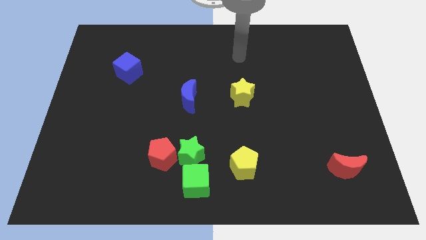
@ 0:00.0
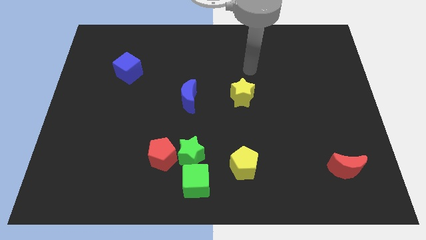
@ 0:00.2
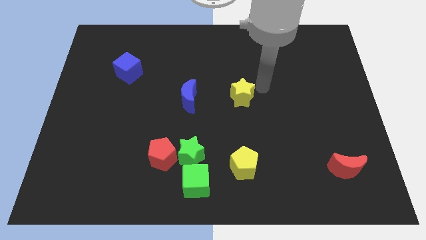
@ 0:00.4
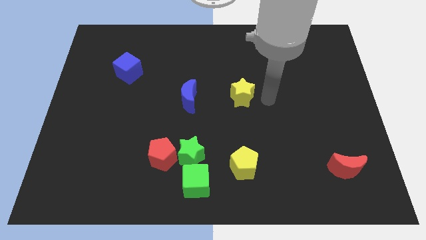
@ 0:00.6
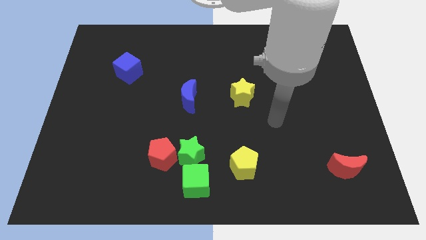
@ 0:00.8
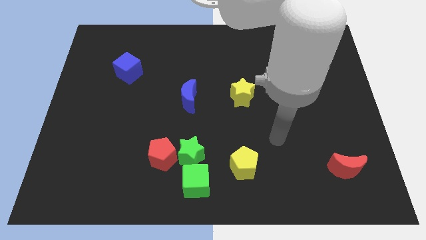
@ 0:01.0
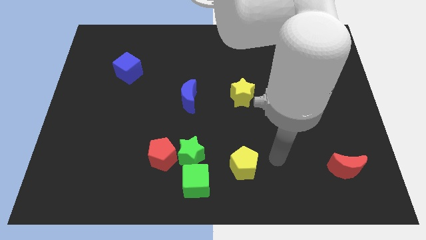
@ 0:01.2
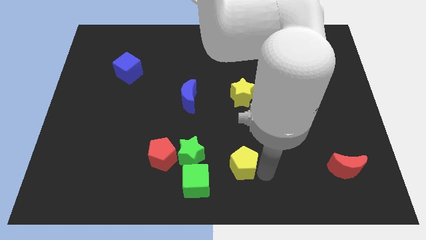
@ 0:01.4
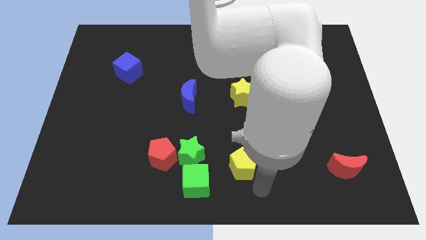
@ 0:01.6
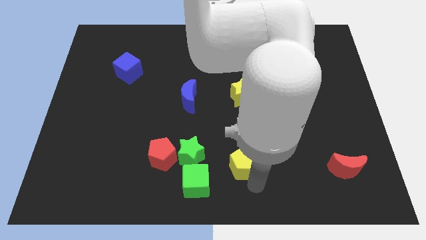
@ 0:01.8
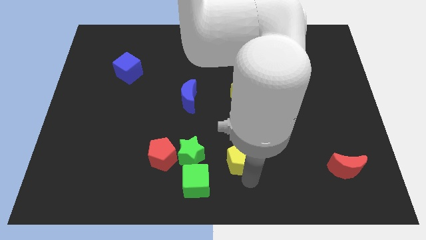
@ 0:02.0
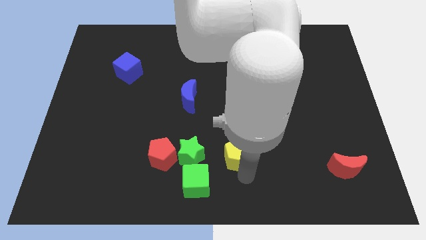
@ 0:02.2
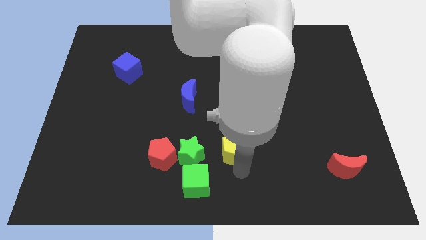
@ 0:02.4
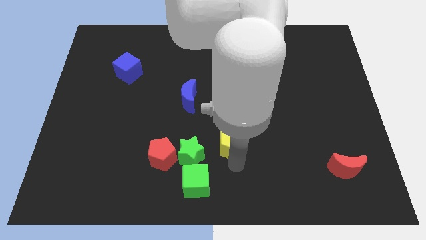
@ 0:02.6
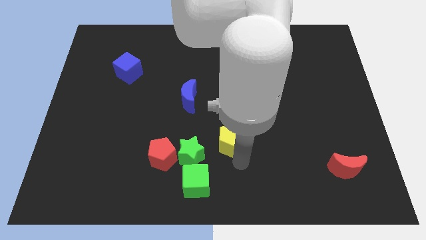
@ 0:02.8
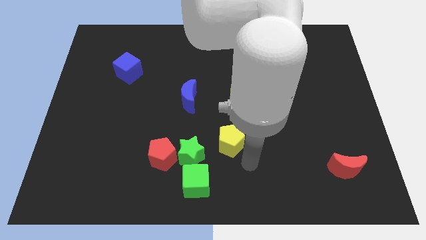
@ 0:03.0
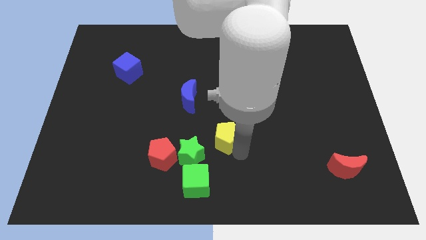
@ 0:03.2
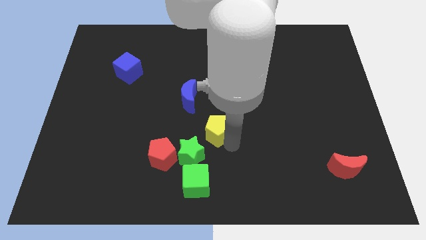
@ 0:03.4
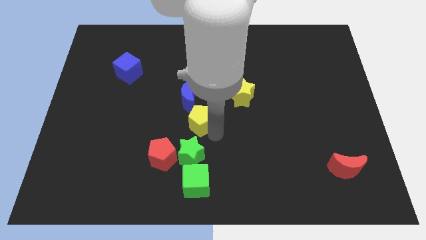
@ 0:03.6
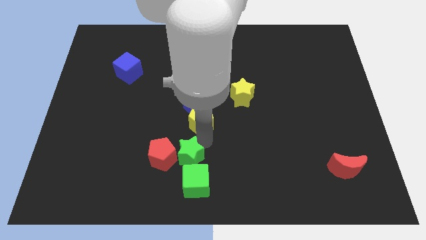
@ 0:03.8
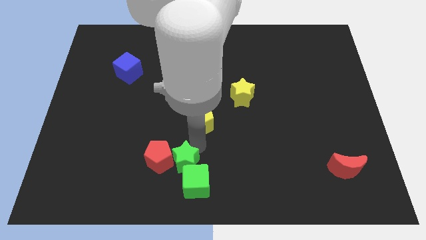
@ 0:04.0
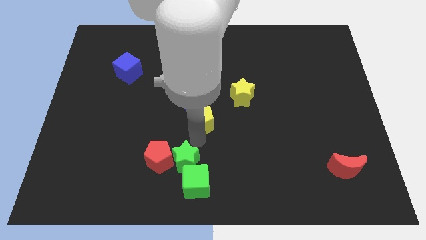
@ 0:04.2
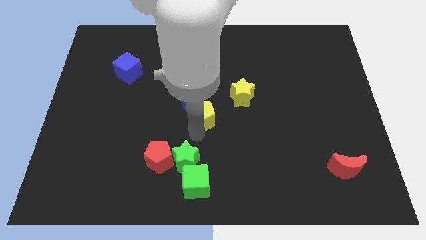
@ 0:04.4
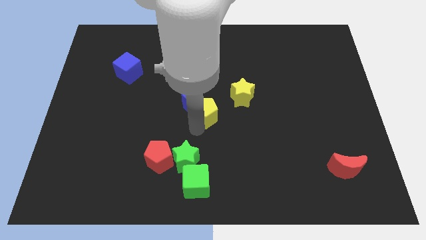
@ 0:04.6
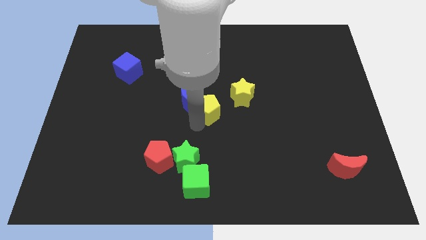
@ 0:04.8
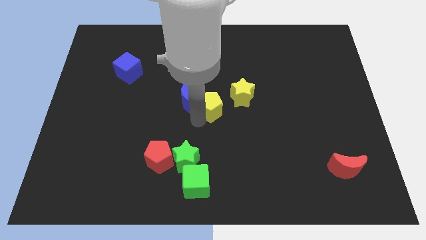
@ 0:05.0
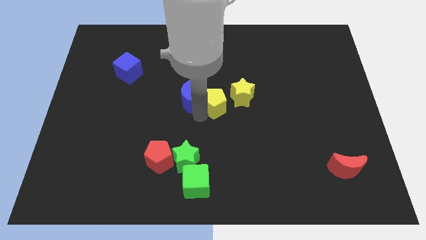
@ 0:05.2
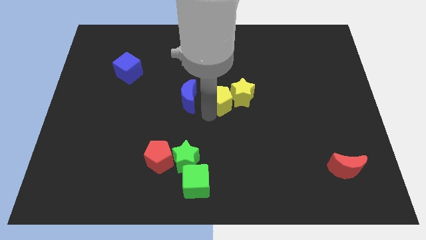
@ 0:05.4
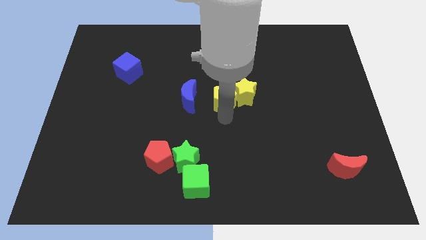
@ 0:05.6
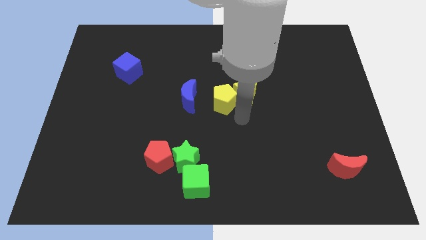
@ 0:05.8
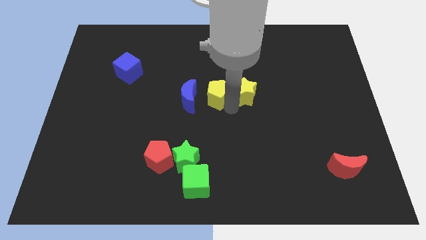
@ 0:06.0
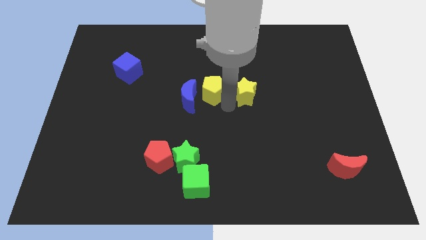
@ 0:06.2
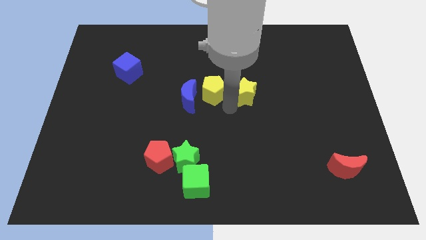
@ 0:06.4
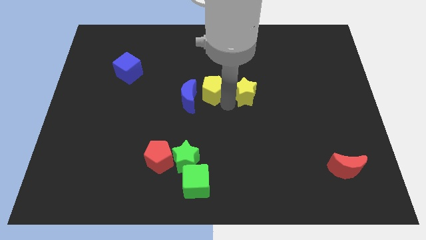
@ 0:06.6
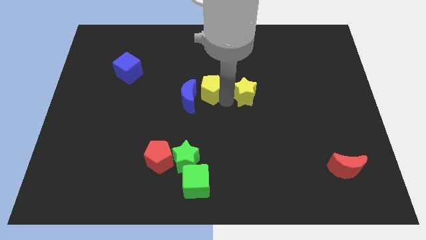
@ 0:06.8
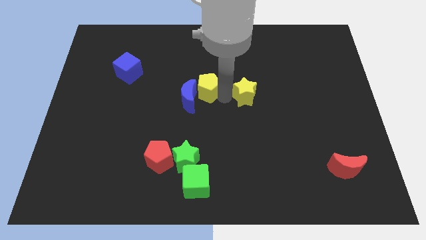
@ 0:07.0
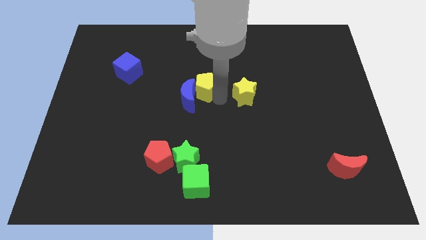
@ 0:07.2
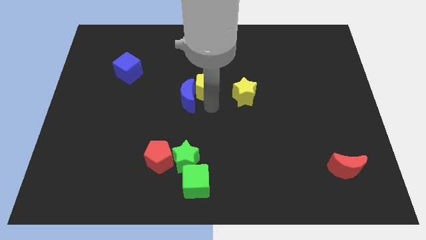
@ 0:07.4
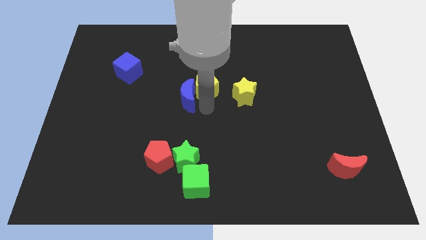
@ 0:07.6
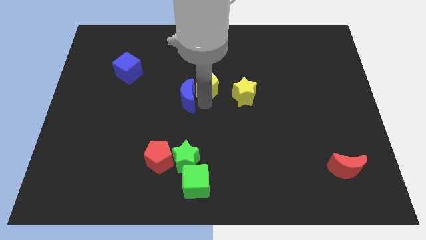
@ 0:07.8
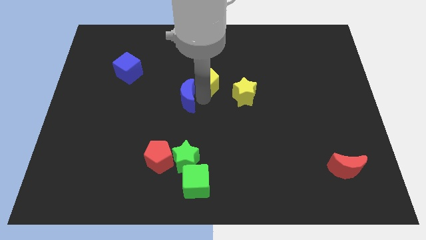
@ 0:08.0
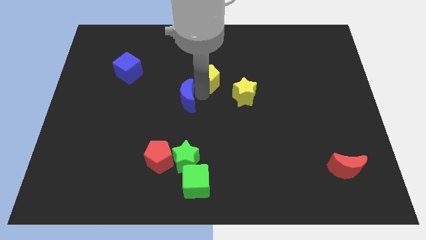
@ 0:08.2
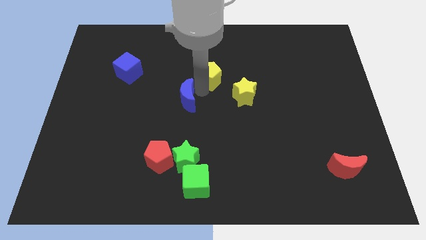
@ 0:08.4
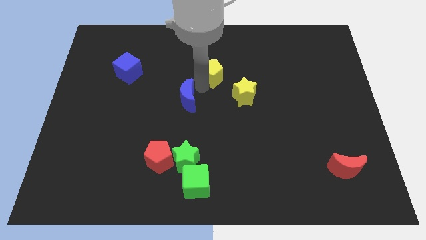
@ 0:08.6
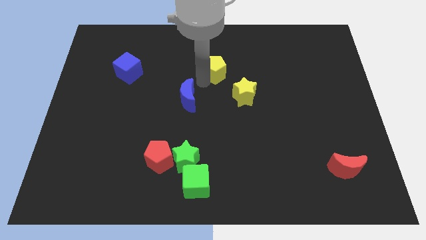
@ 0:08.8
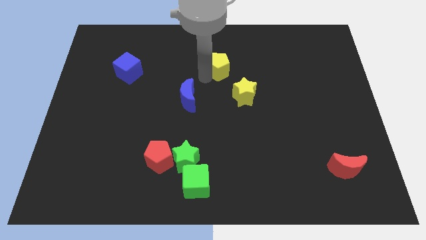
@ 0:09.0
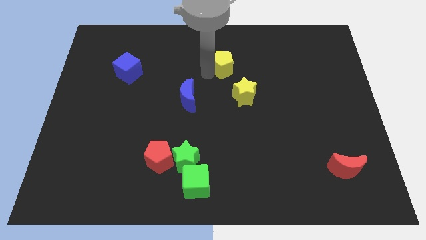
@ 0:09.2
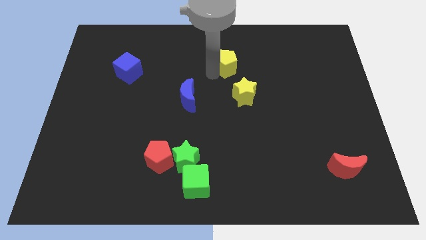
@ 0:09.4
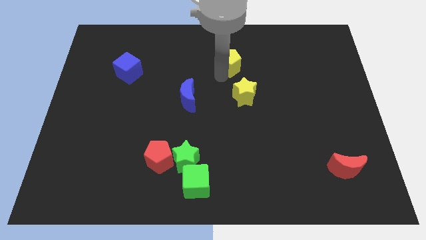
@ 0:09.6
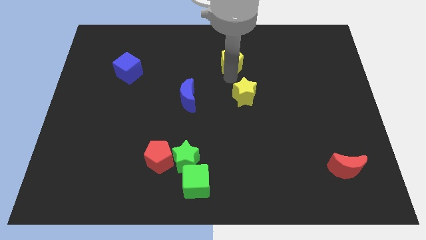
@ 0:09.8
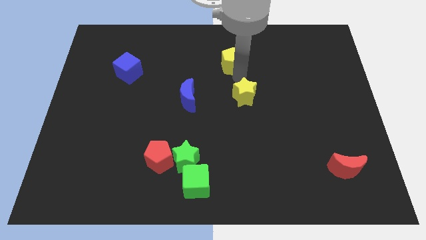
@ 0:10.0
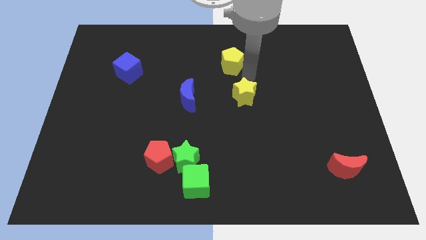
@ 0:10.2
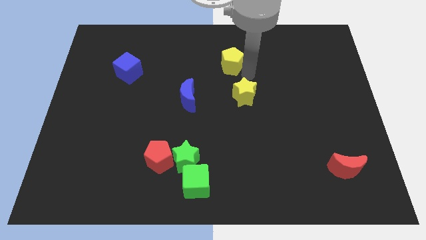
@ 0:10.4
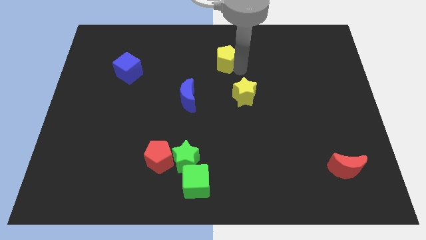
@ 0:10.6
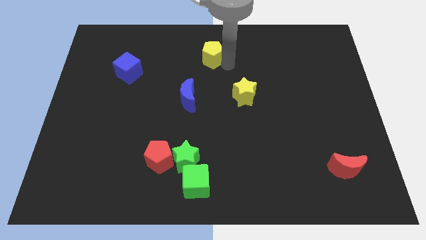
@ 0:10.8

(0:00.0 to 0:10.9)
move the yellow pentagon to the top side

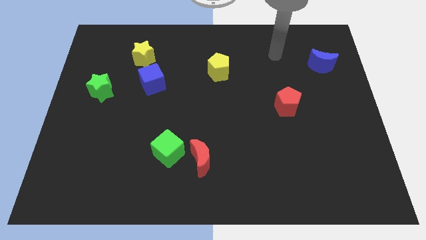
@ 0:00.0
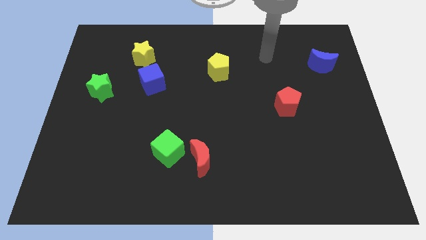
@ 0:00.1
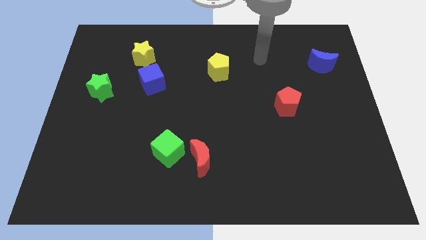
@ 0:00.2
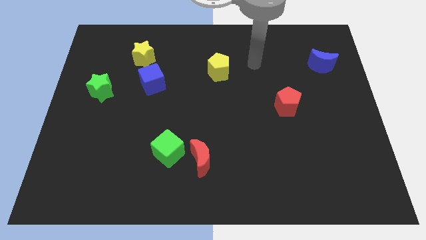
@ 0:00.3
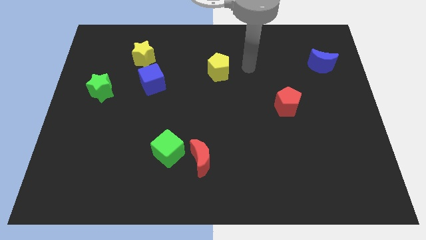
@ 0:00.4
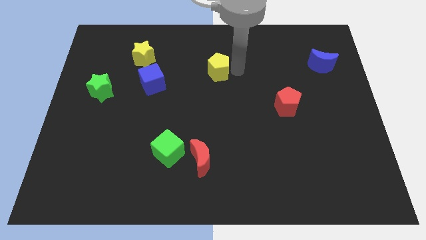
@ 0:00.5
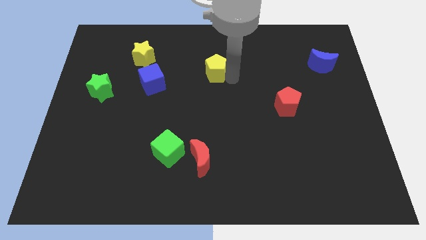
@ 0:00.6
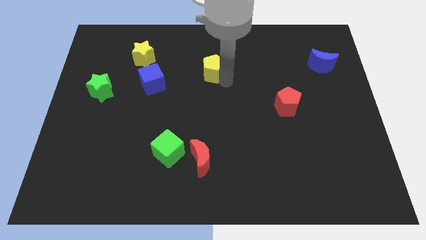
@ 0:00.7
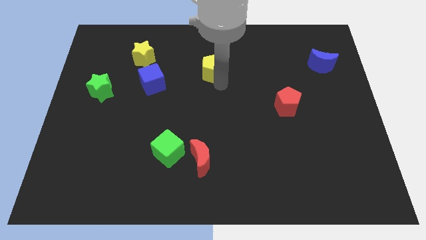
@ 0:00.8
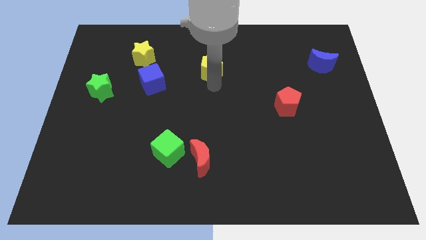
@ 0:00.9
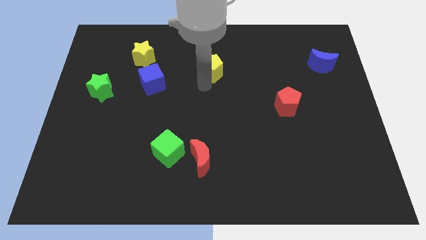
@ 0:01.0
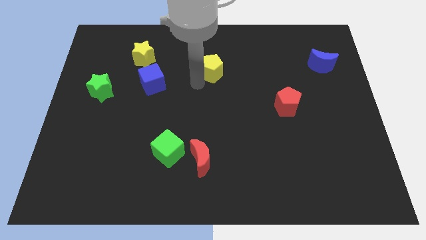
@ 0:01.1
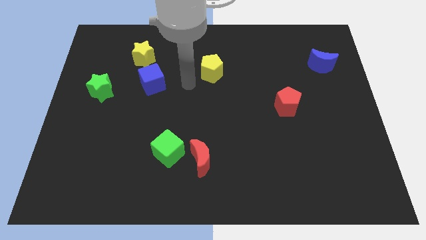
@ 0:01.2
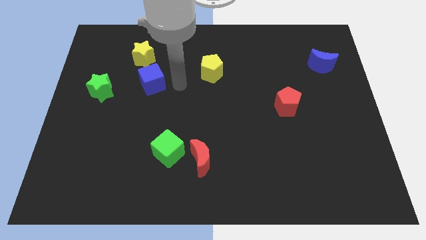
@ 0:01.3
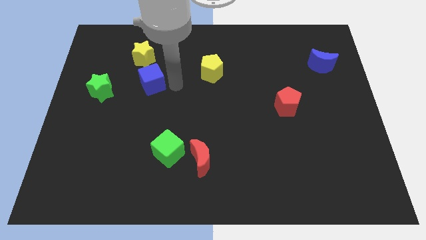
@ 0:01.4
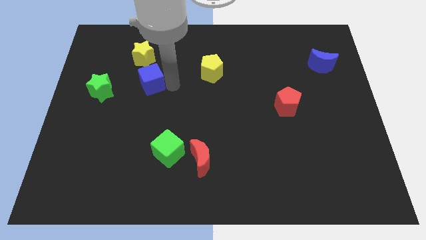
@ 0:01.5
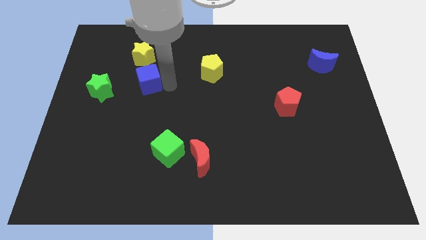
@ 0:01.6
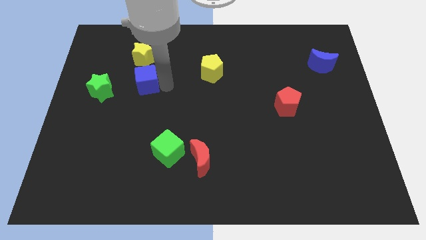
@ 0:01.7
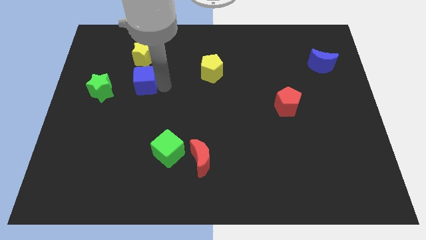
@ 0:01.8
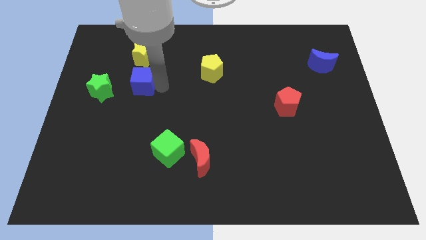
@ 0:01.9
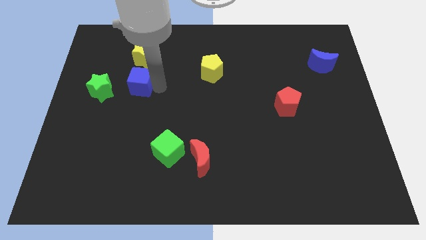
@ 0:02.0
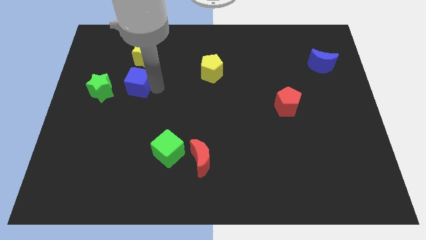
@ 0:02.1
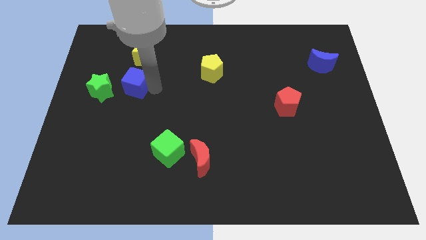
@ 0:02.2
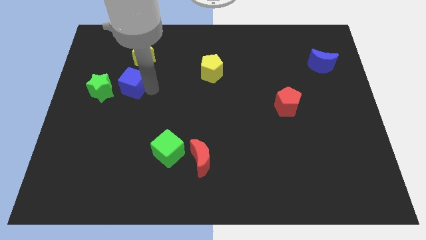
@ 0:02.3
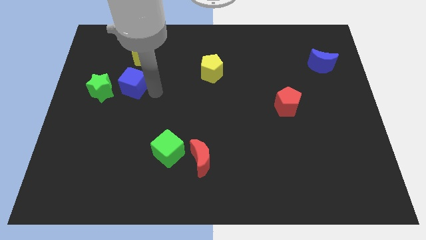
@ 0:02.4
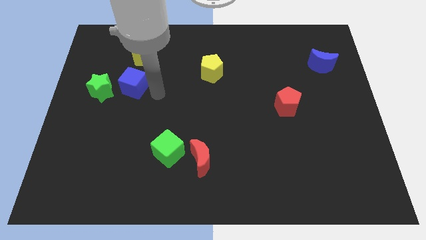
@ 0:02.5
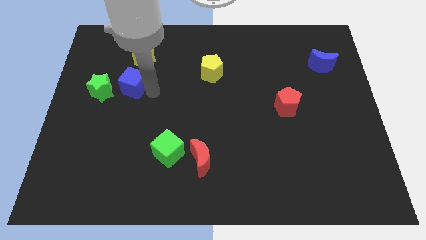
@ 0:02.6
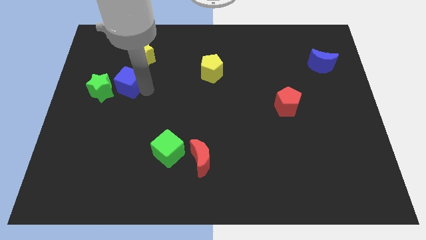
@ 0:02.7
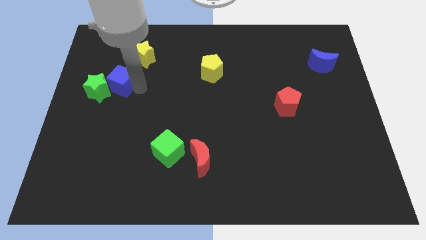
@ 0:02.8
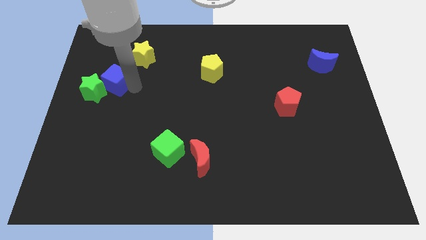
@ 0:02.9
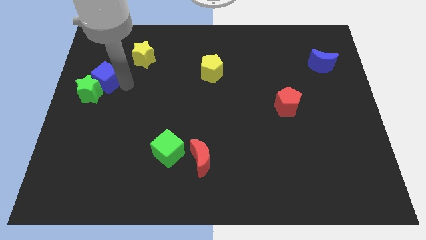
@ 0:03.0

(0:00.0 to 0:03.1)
slide the blue cube to the left side of the board
